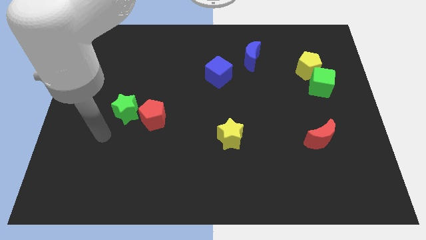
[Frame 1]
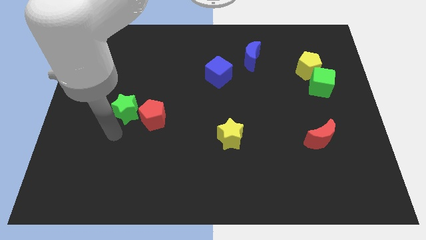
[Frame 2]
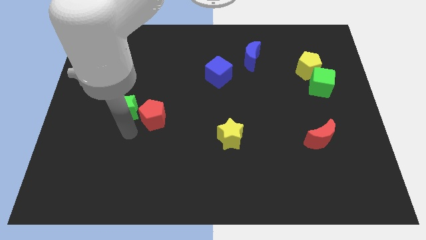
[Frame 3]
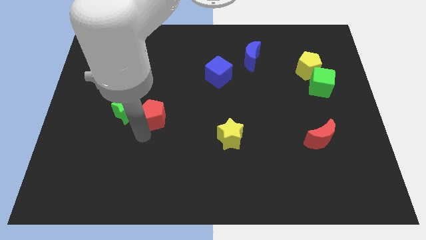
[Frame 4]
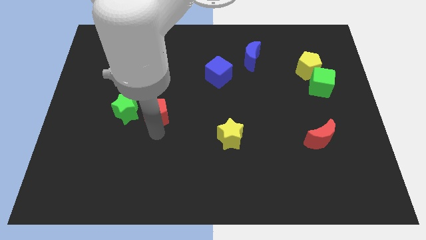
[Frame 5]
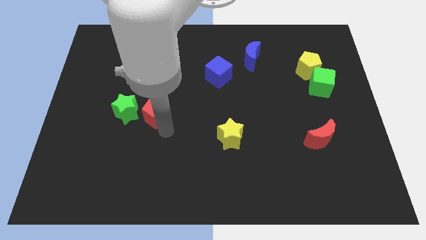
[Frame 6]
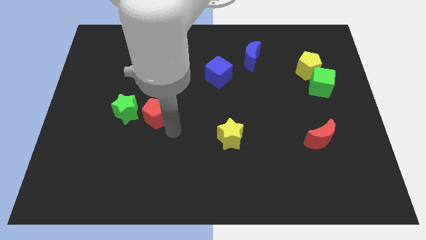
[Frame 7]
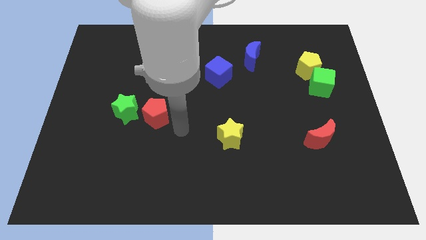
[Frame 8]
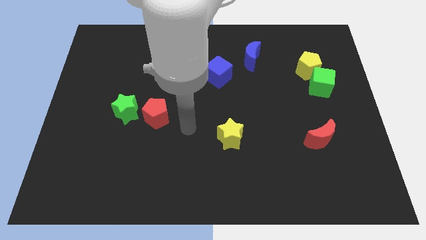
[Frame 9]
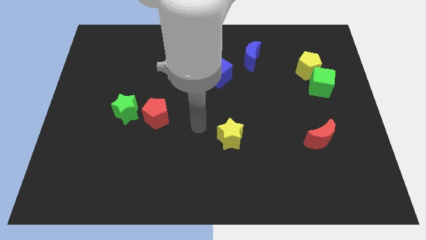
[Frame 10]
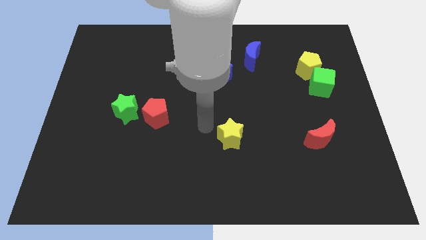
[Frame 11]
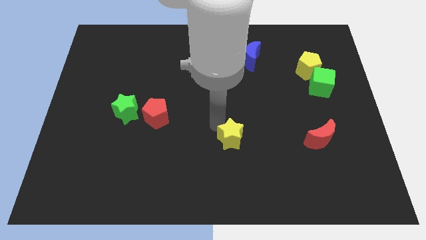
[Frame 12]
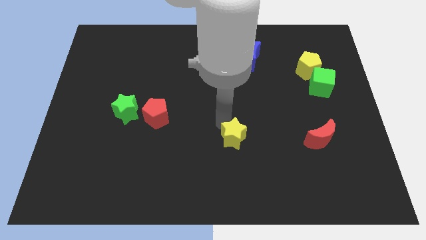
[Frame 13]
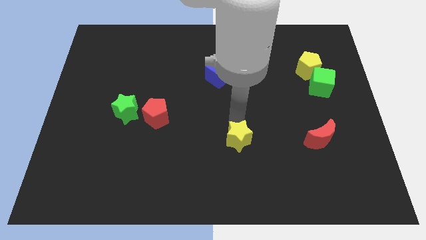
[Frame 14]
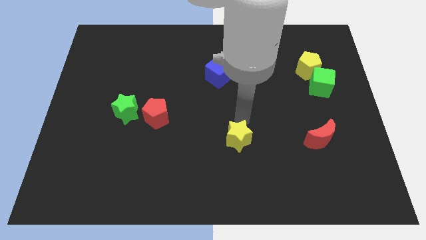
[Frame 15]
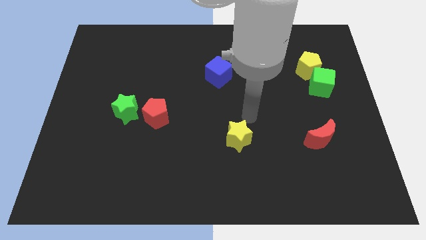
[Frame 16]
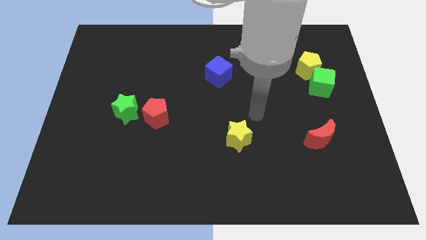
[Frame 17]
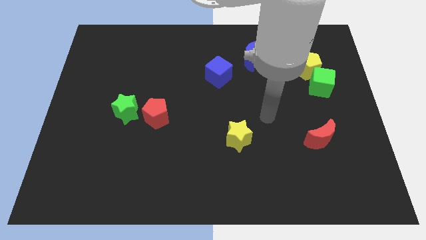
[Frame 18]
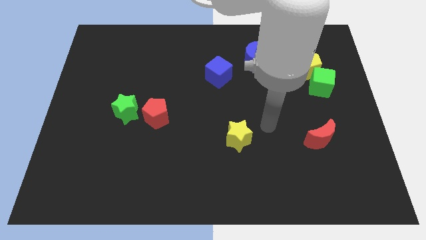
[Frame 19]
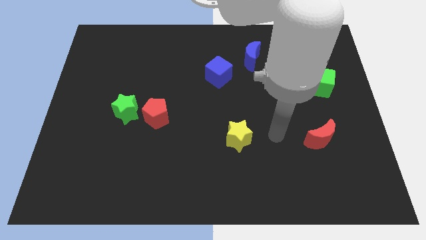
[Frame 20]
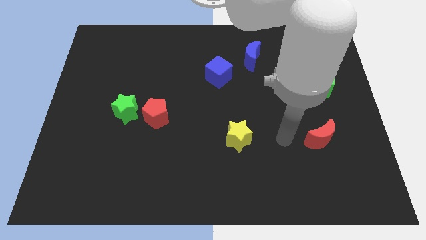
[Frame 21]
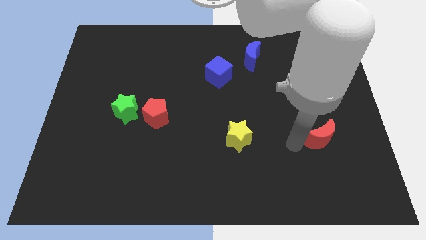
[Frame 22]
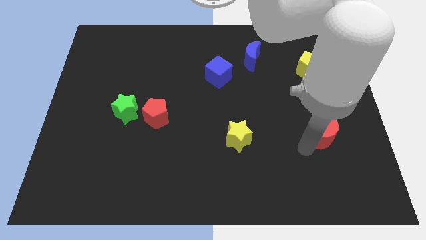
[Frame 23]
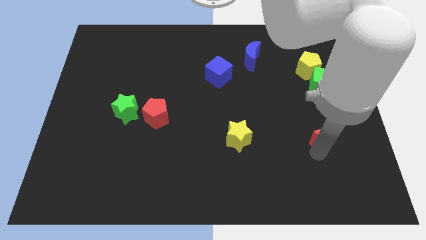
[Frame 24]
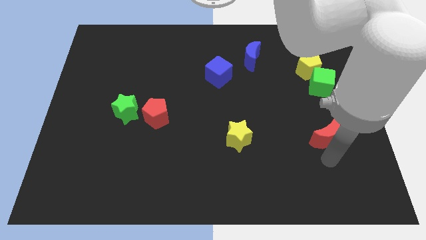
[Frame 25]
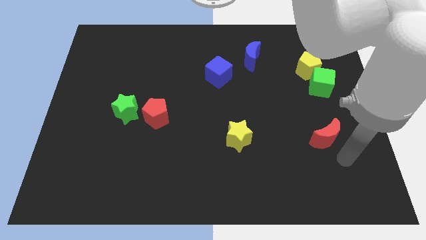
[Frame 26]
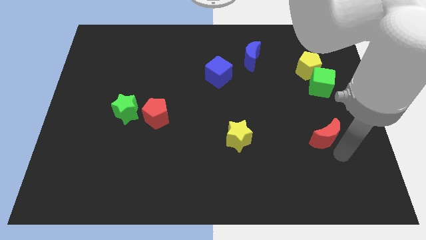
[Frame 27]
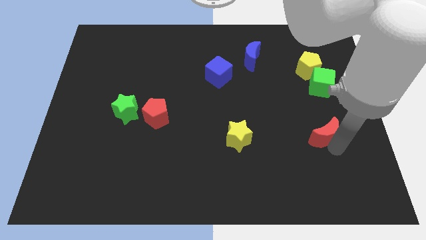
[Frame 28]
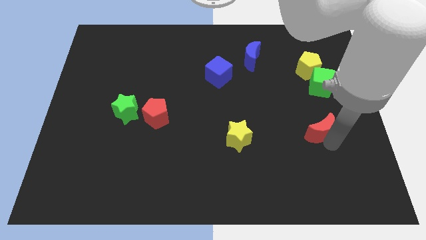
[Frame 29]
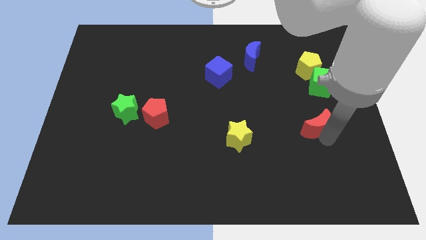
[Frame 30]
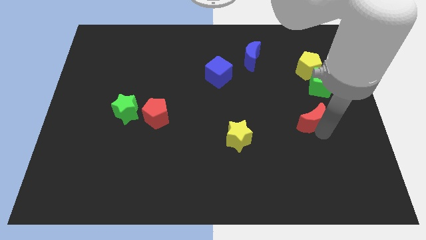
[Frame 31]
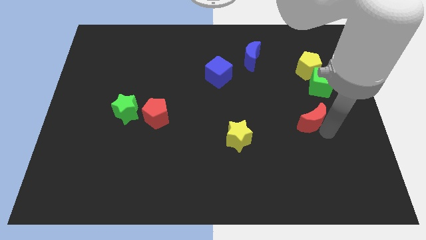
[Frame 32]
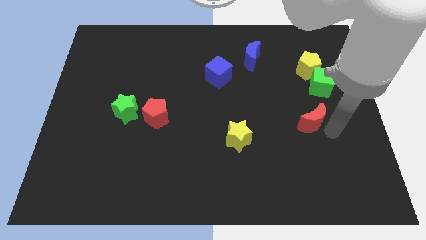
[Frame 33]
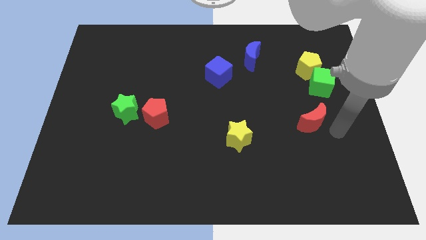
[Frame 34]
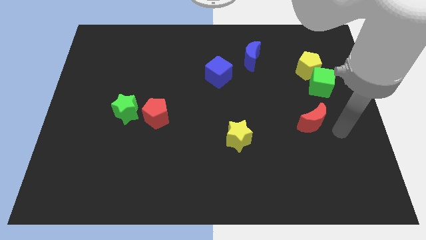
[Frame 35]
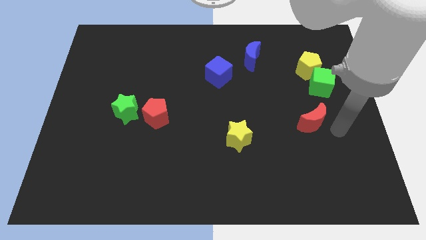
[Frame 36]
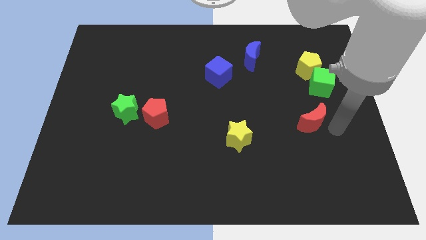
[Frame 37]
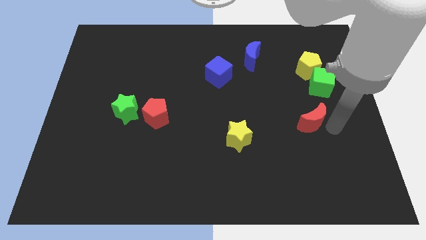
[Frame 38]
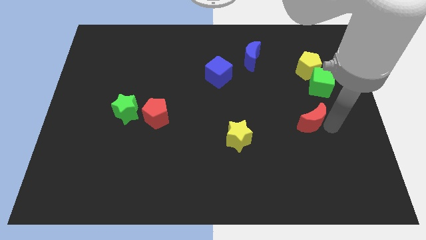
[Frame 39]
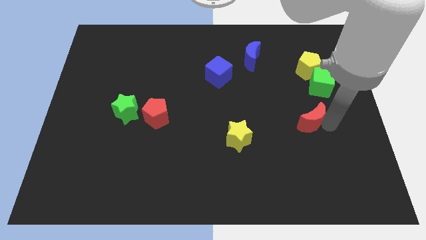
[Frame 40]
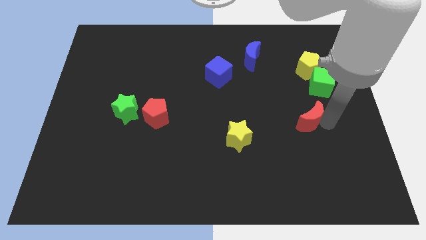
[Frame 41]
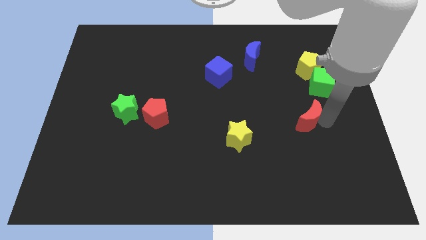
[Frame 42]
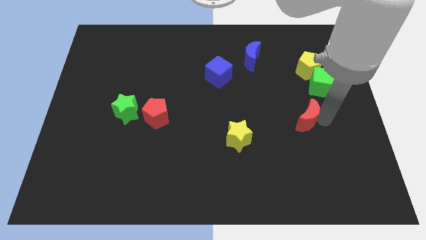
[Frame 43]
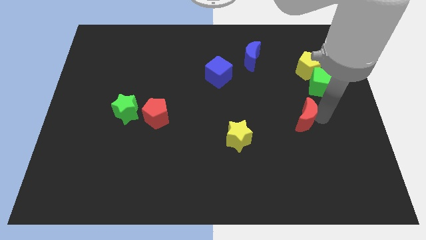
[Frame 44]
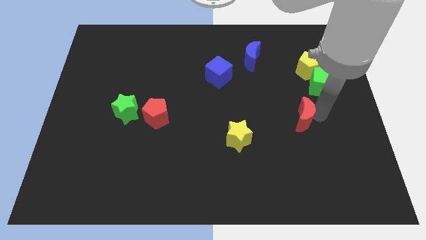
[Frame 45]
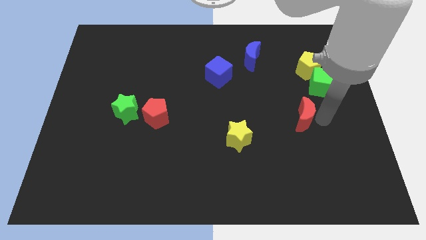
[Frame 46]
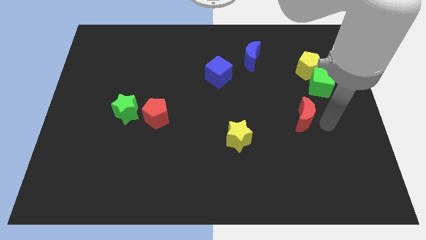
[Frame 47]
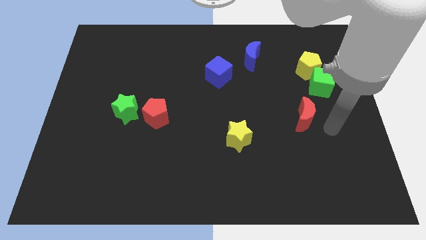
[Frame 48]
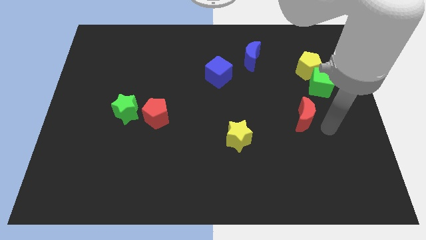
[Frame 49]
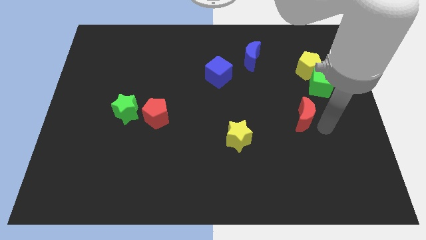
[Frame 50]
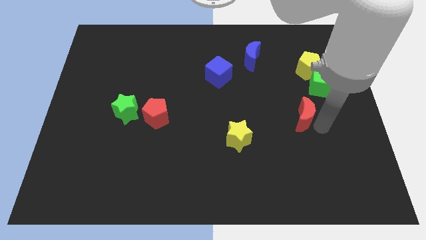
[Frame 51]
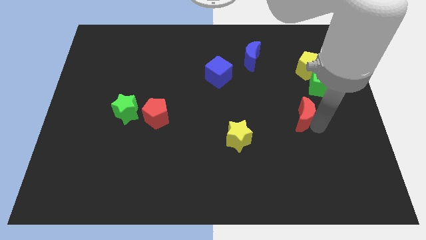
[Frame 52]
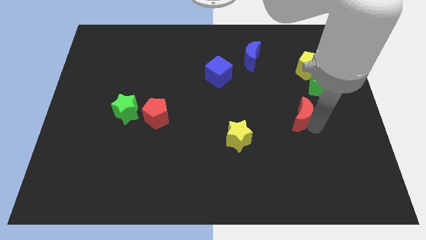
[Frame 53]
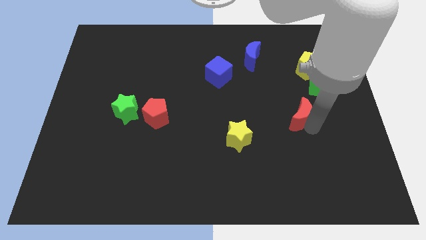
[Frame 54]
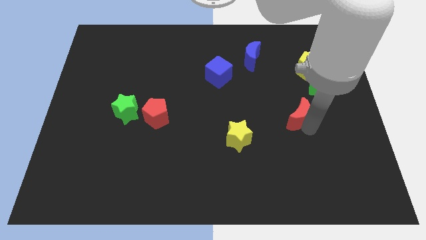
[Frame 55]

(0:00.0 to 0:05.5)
slide the red moon upwards and left diagonally a little

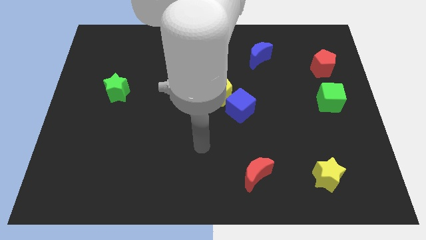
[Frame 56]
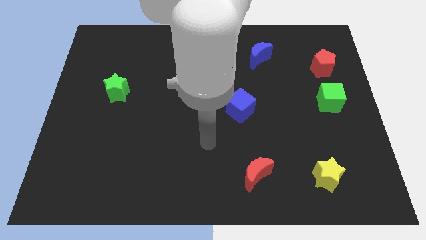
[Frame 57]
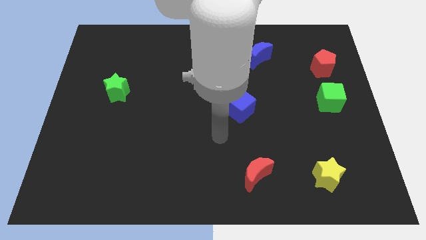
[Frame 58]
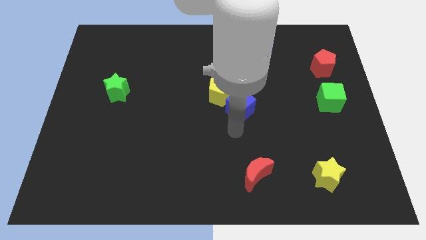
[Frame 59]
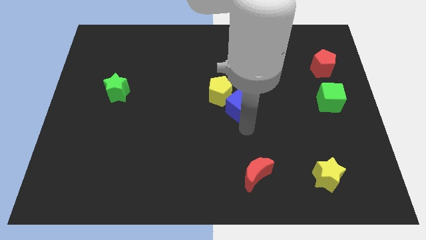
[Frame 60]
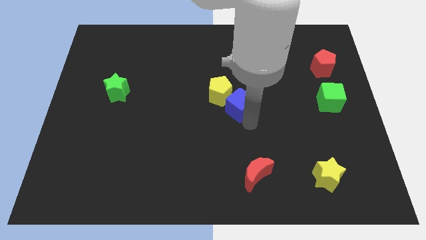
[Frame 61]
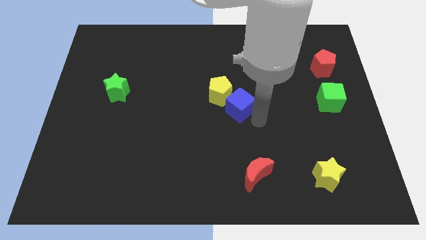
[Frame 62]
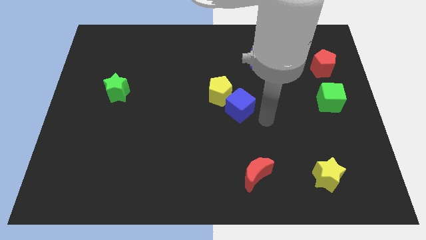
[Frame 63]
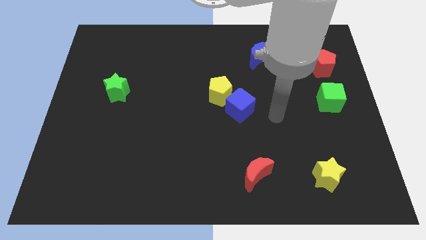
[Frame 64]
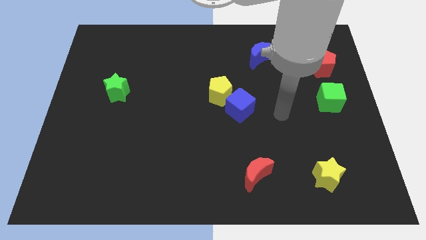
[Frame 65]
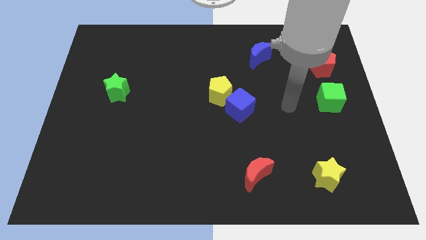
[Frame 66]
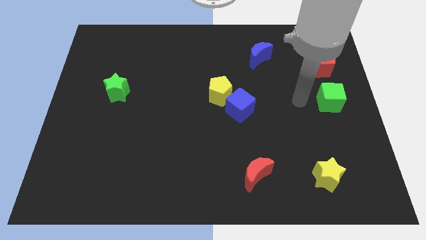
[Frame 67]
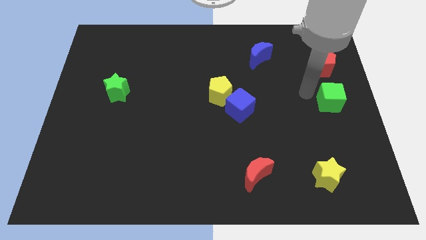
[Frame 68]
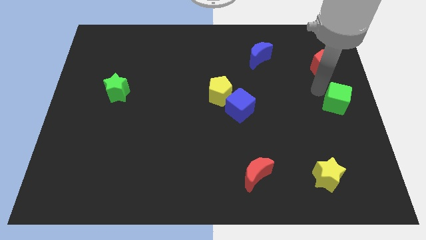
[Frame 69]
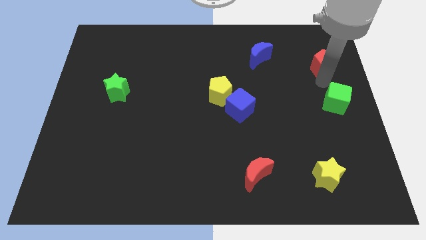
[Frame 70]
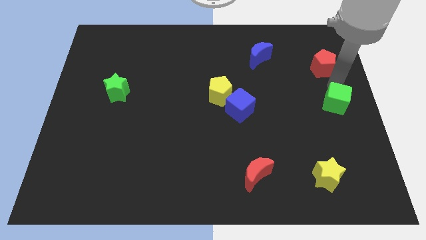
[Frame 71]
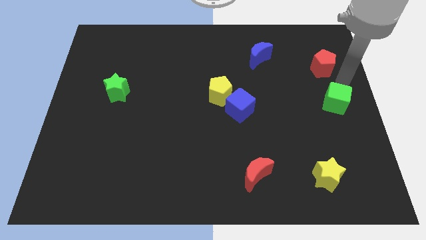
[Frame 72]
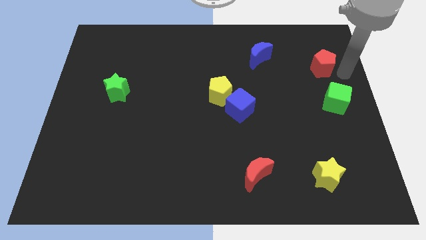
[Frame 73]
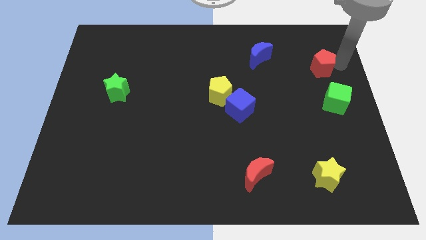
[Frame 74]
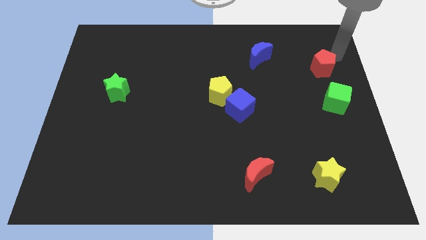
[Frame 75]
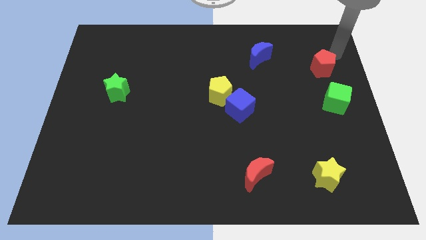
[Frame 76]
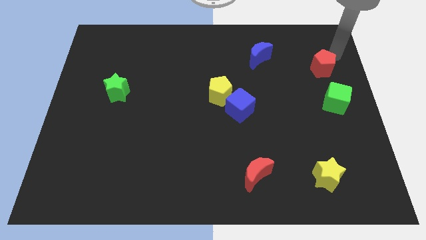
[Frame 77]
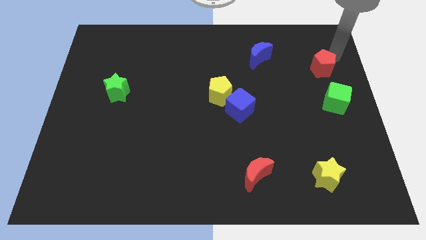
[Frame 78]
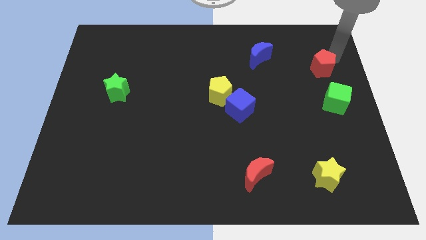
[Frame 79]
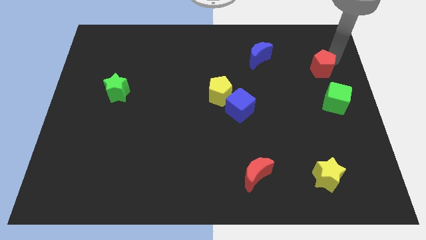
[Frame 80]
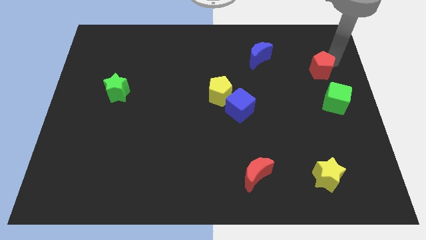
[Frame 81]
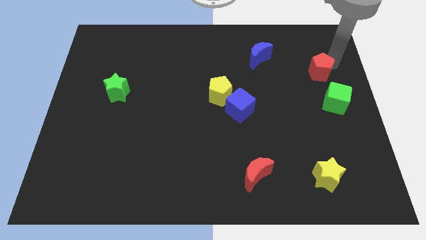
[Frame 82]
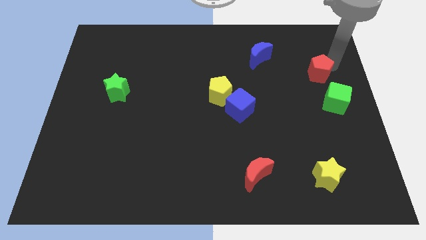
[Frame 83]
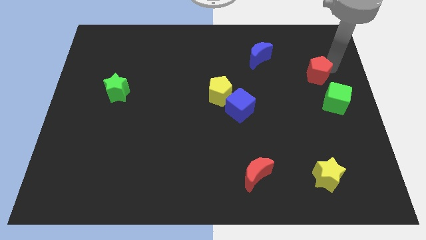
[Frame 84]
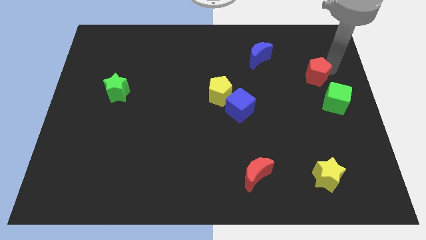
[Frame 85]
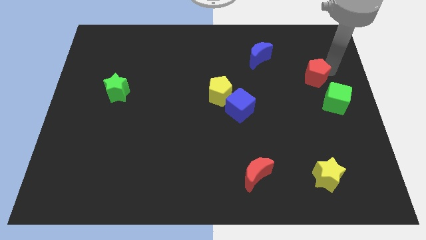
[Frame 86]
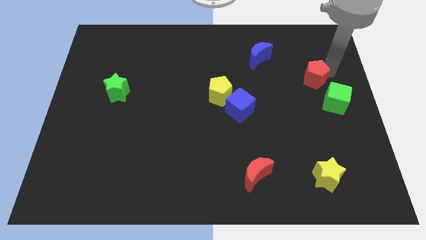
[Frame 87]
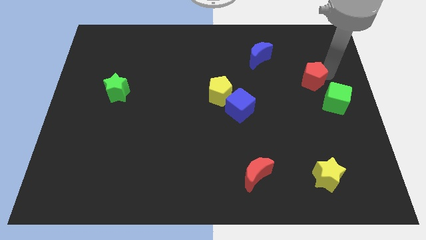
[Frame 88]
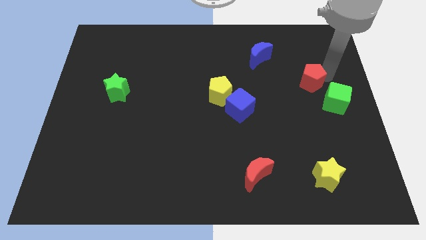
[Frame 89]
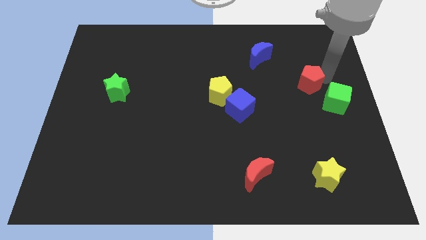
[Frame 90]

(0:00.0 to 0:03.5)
slightly move the red pentagon downwards and then left
